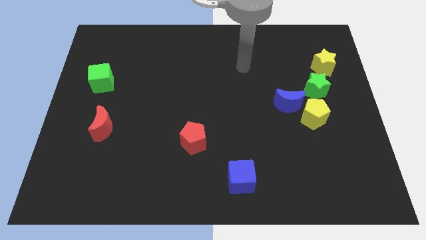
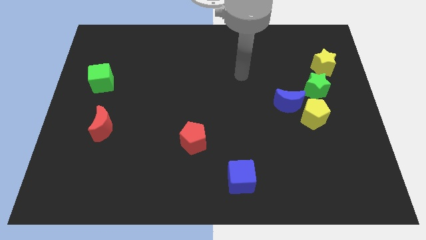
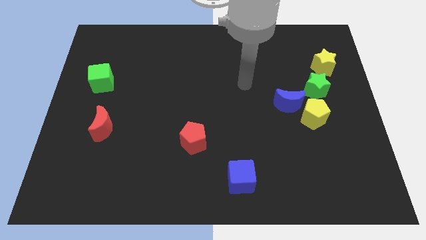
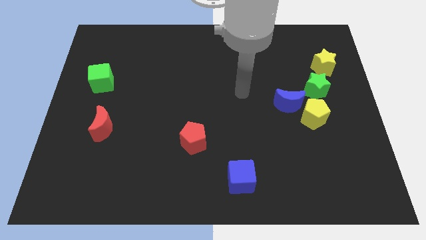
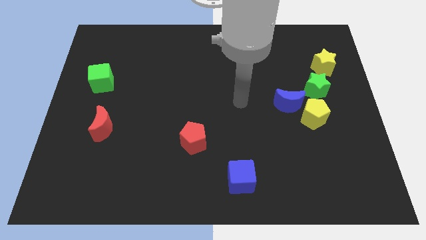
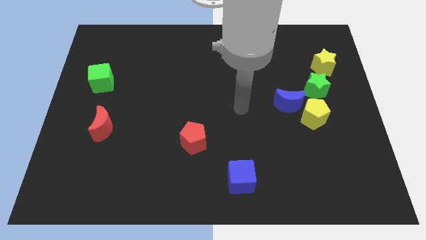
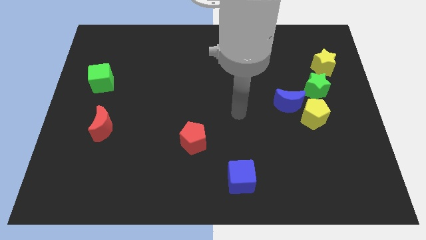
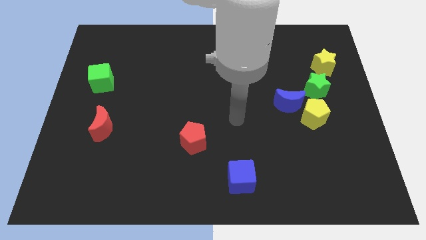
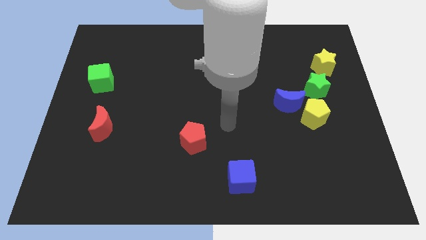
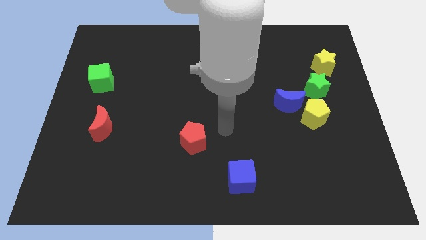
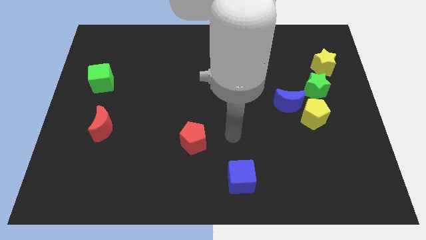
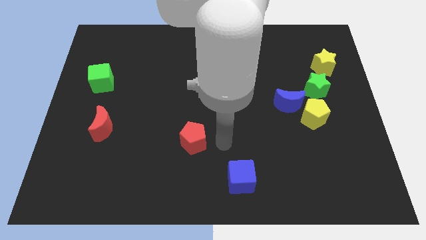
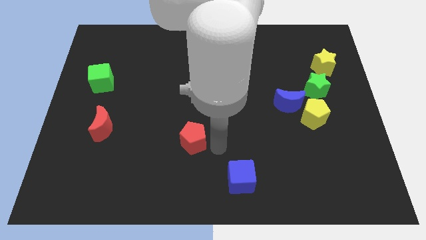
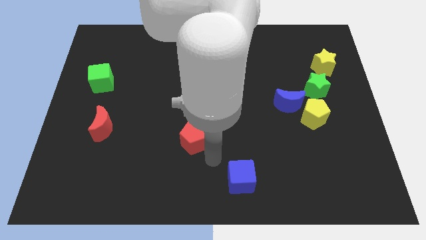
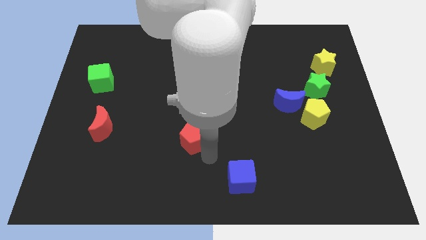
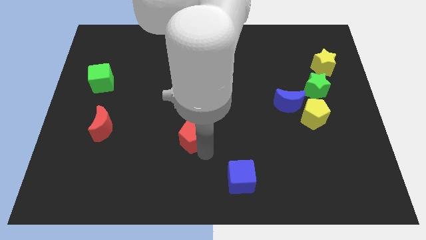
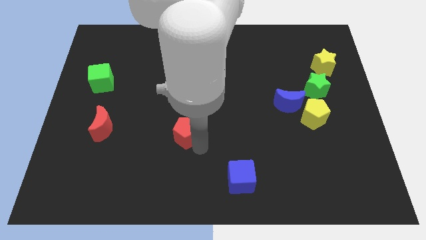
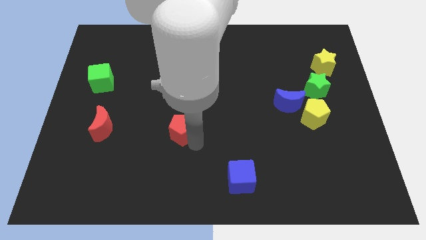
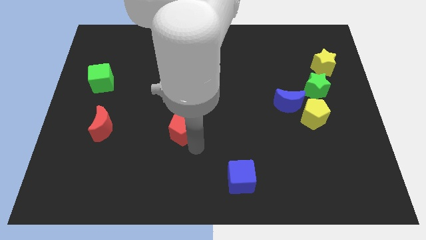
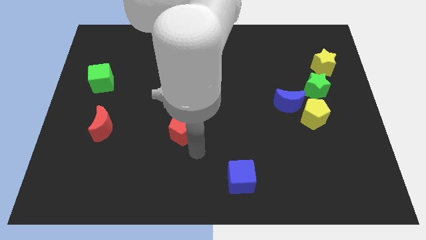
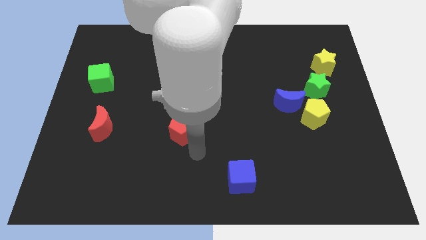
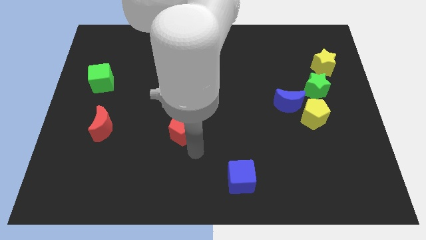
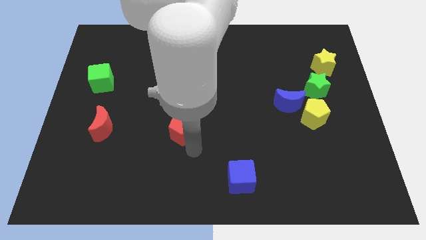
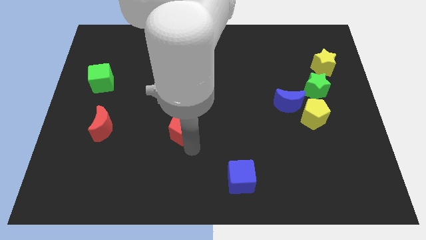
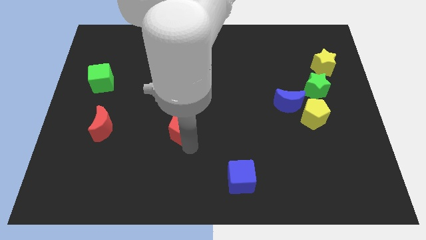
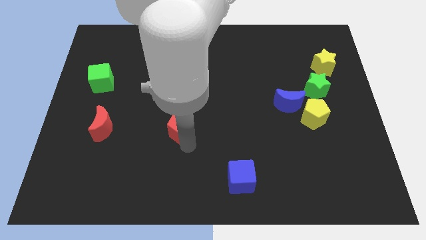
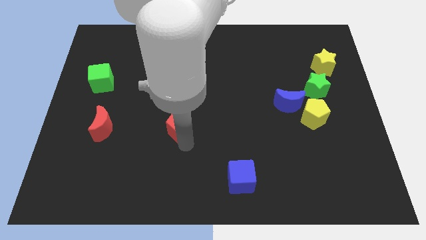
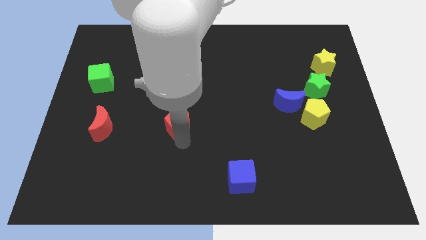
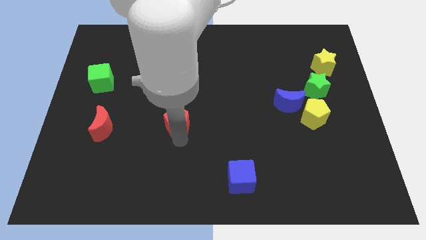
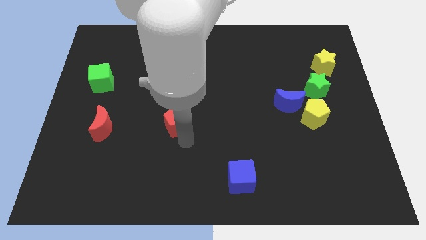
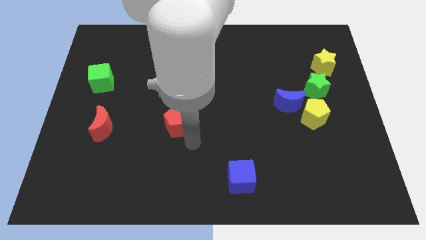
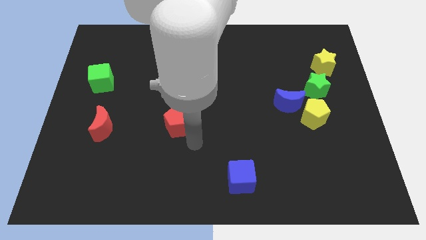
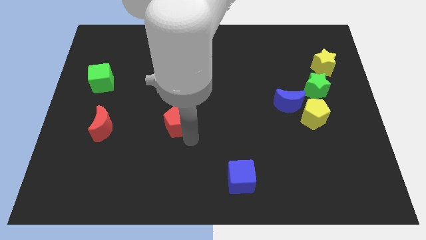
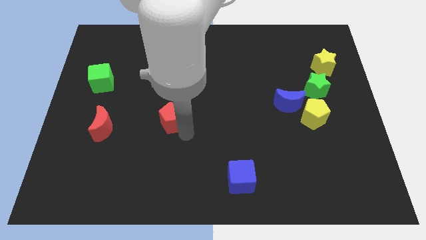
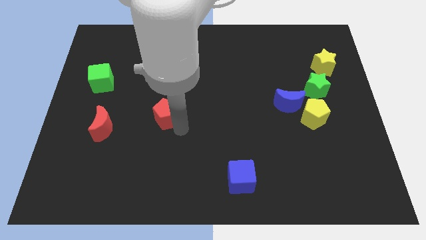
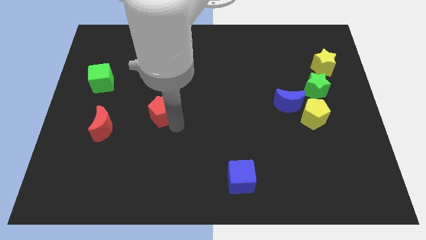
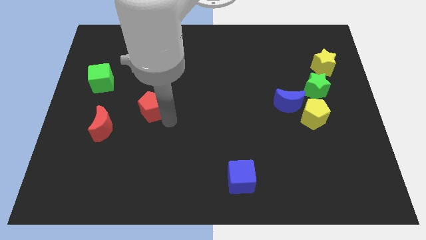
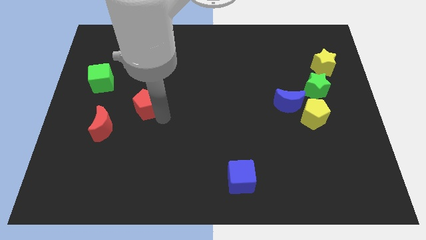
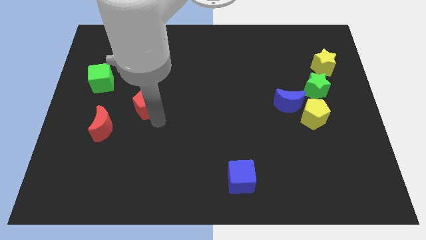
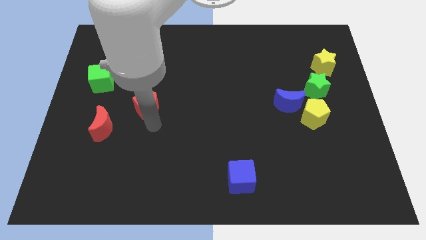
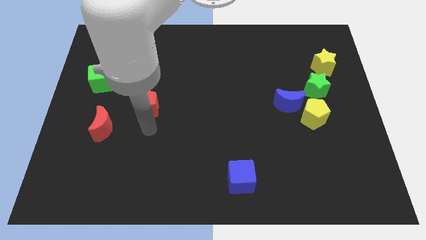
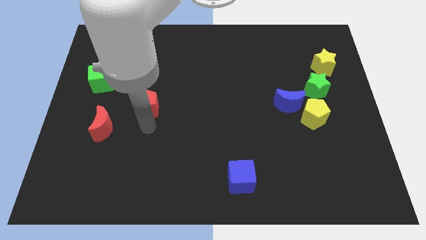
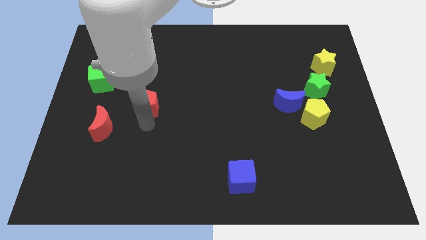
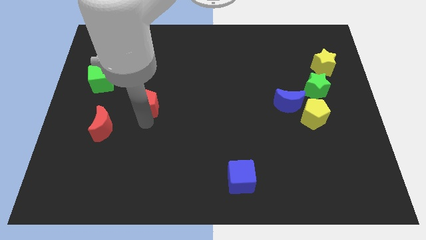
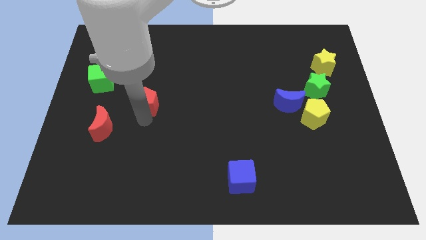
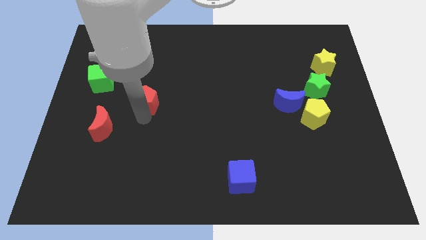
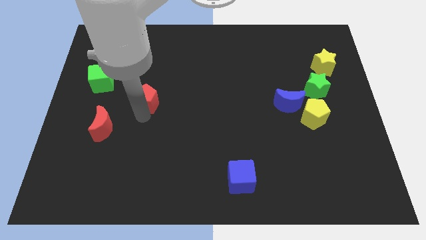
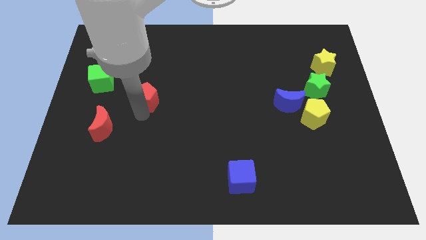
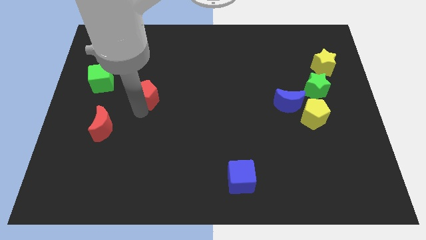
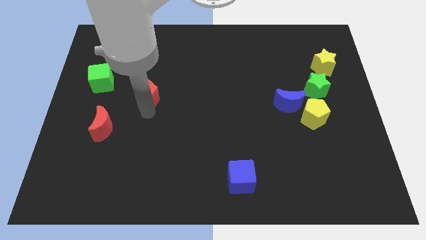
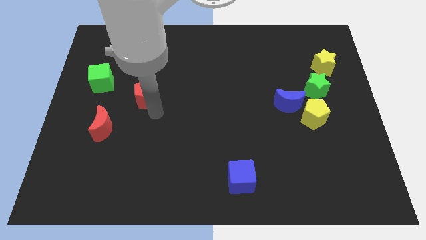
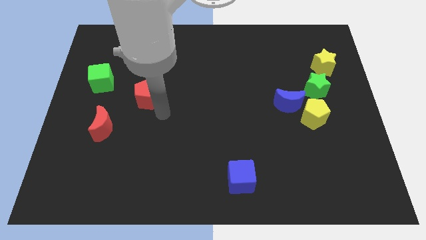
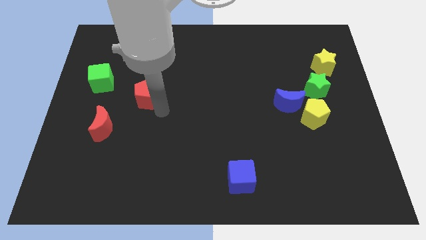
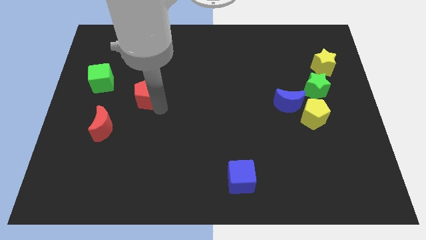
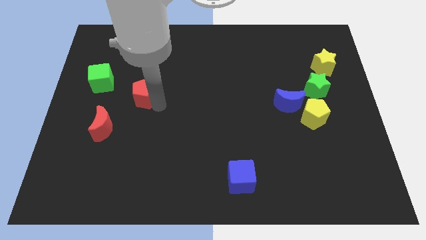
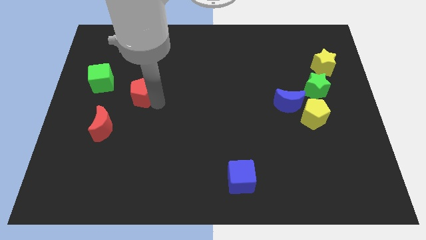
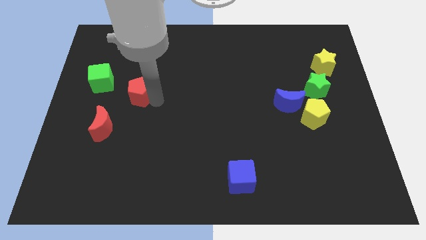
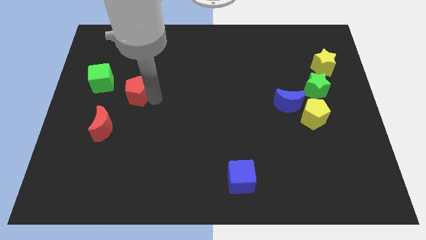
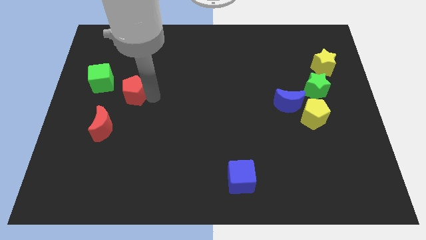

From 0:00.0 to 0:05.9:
move the red pentagon upwards and left

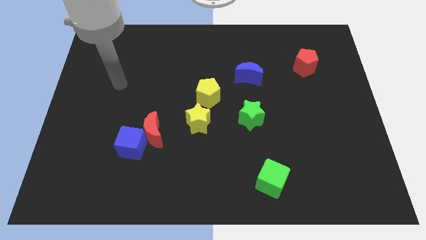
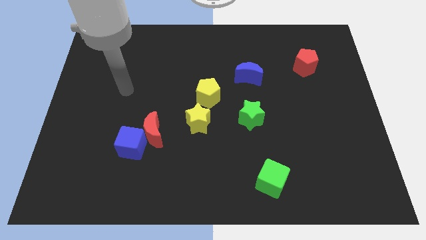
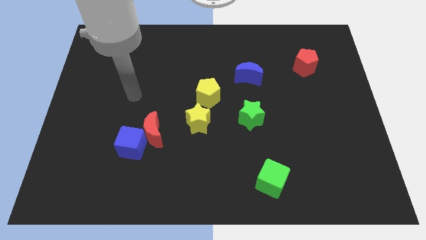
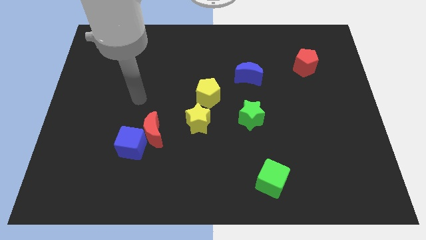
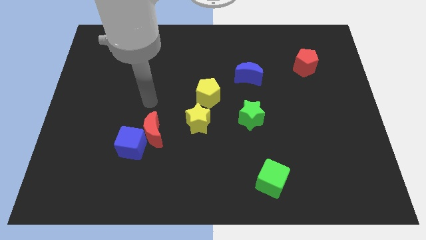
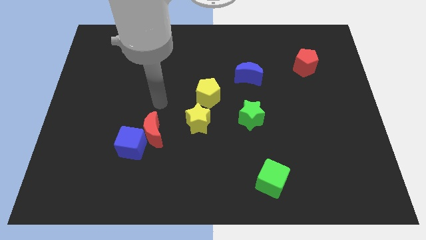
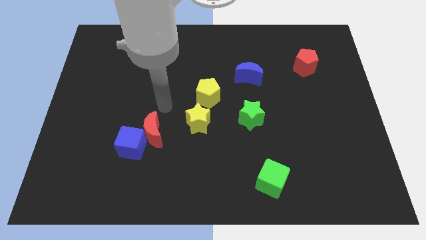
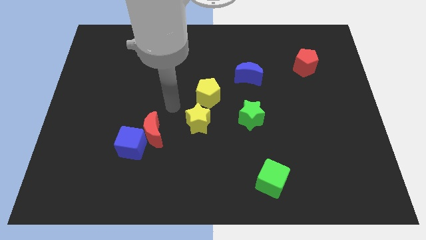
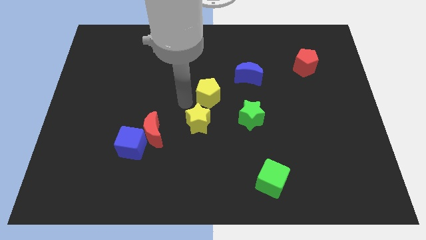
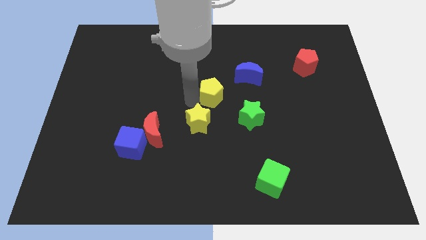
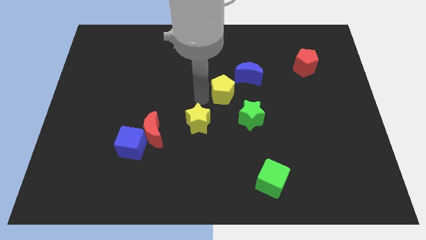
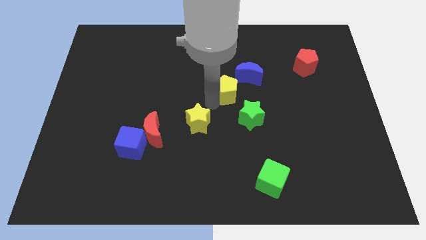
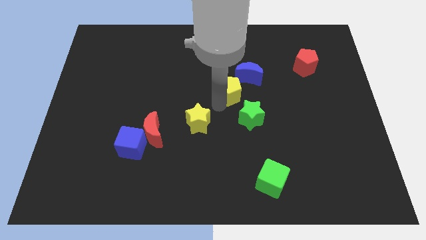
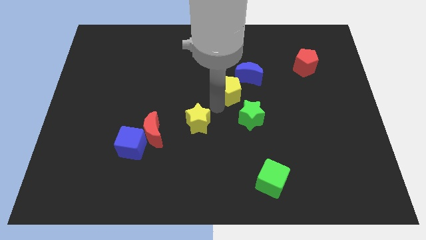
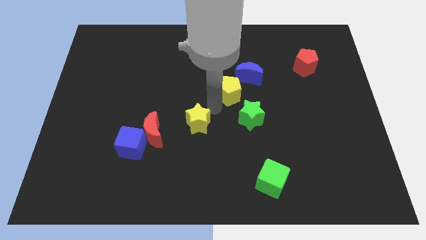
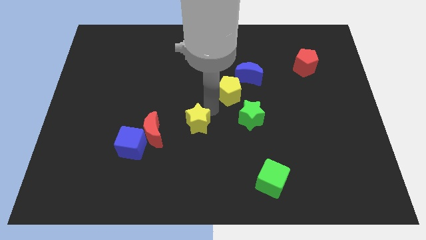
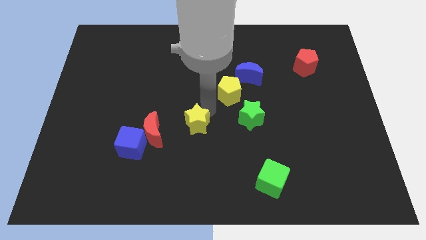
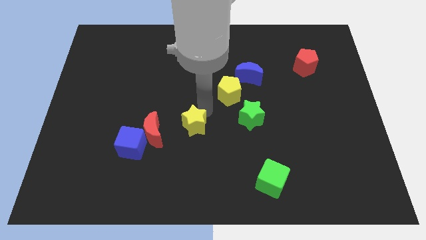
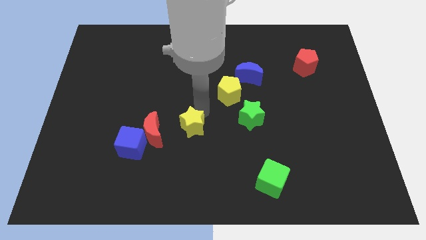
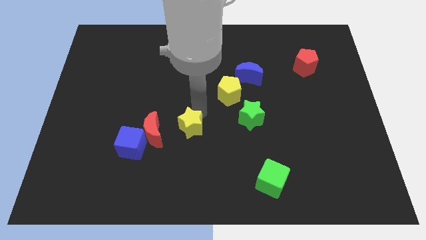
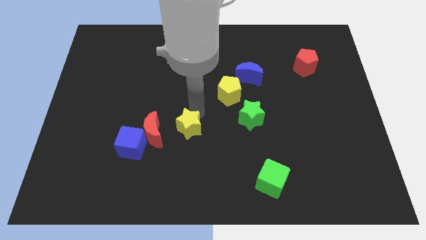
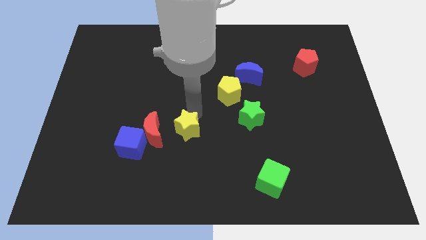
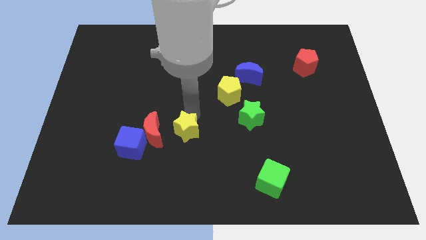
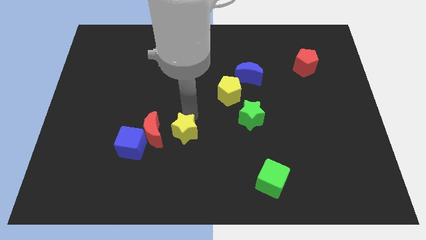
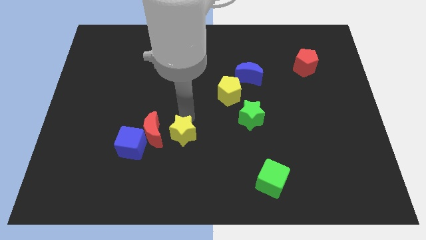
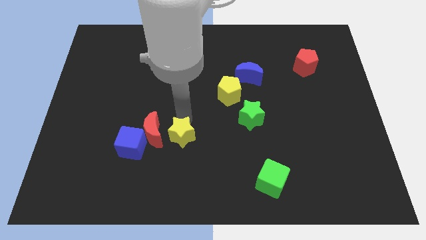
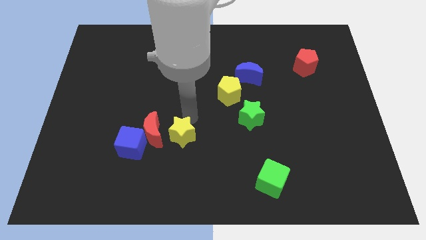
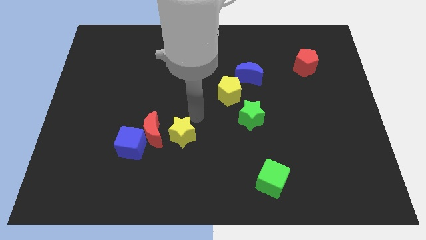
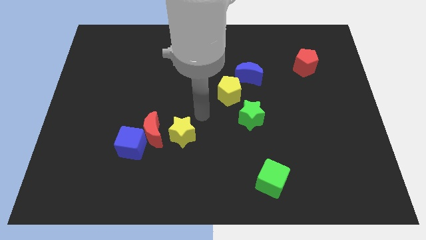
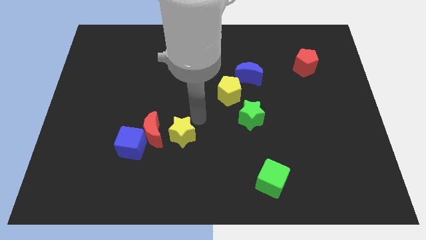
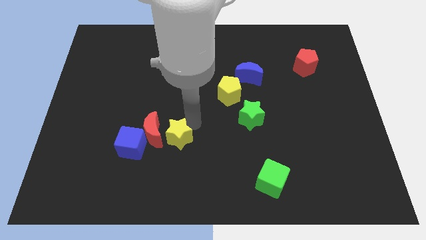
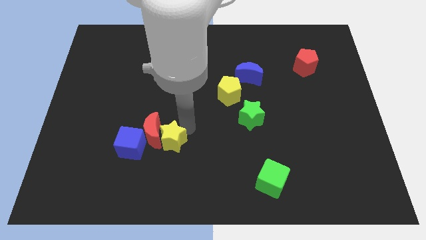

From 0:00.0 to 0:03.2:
slightly push the yellow star down and left diagonally
